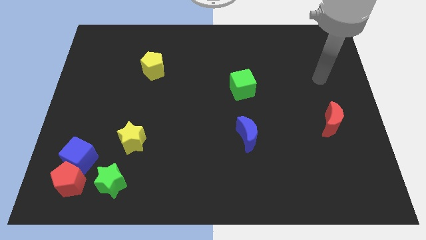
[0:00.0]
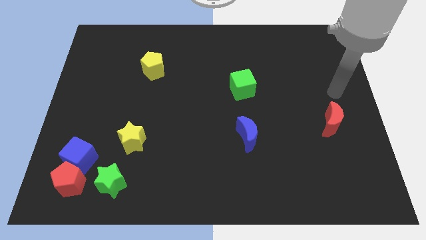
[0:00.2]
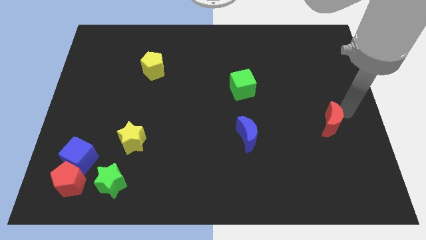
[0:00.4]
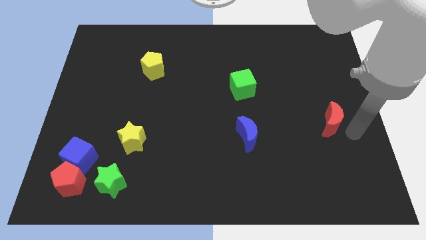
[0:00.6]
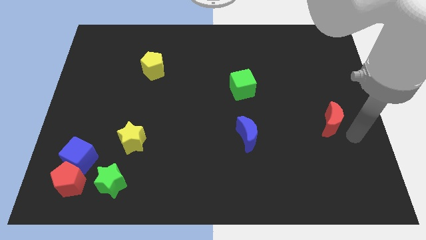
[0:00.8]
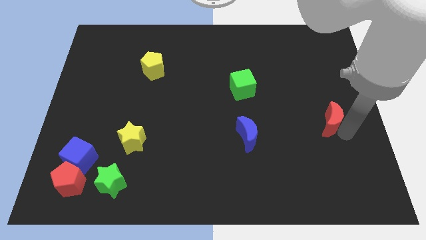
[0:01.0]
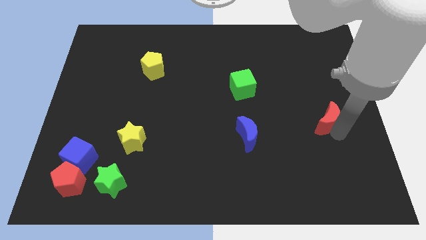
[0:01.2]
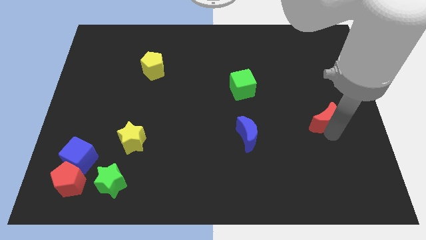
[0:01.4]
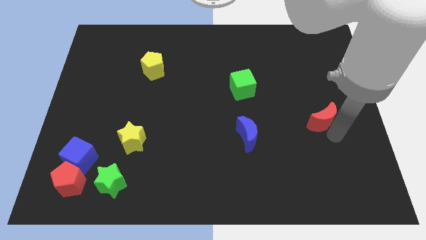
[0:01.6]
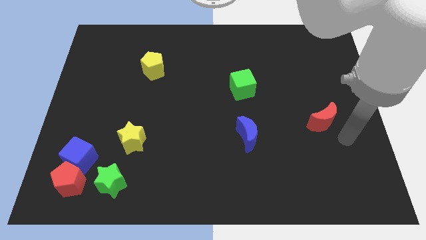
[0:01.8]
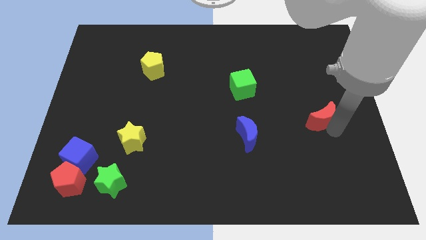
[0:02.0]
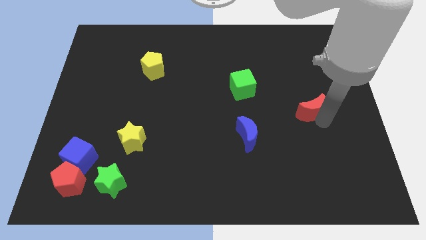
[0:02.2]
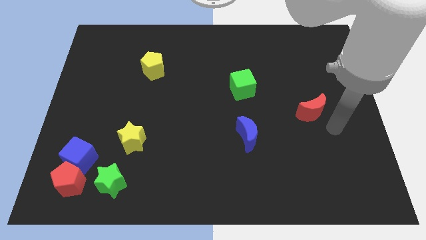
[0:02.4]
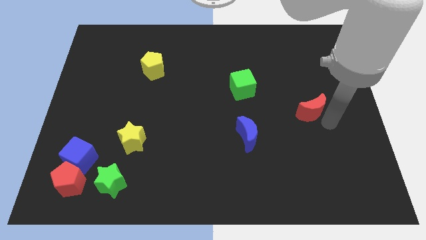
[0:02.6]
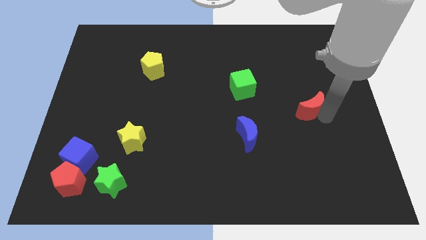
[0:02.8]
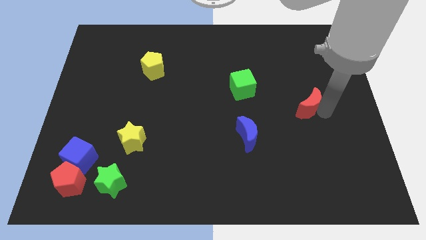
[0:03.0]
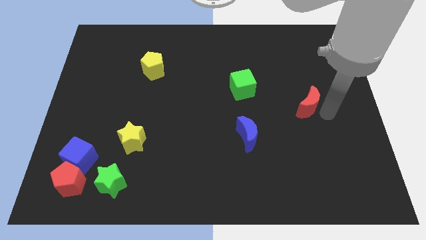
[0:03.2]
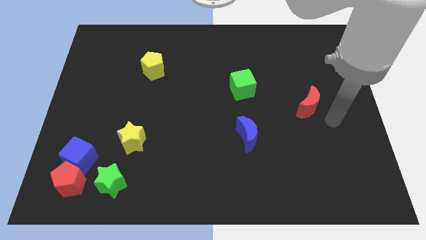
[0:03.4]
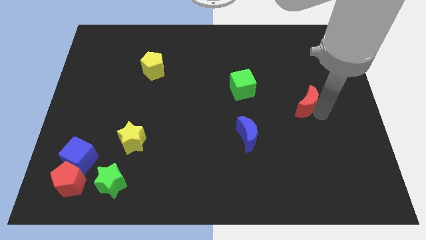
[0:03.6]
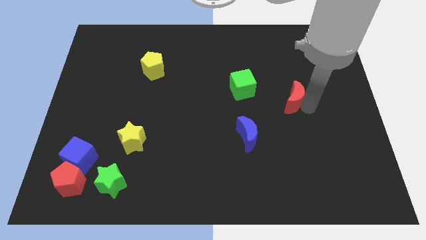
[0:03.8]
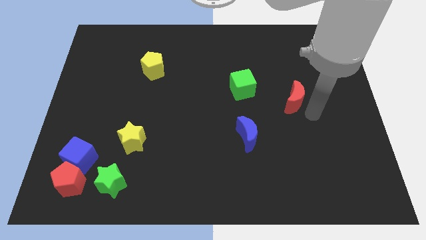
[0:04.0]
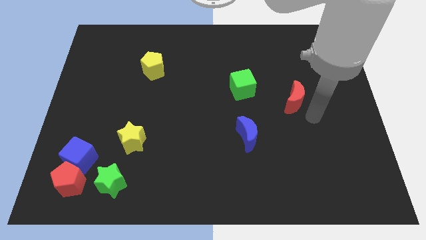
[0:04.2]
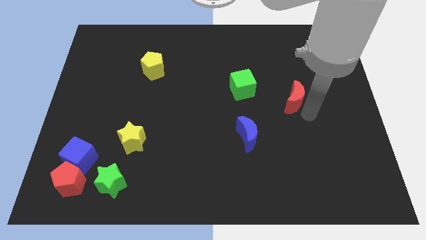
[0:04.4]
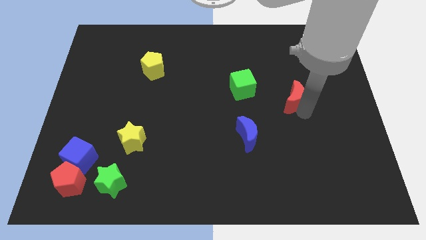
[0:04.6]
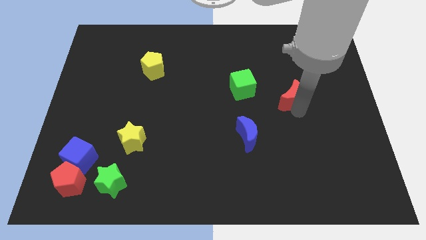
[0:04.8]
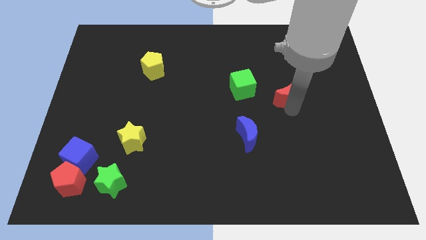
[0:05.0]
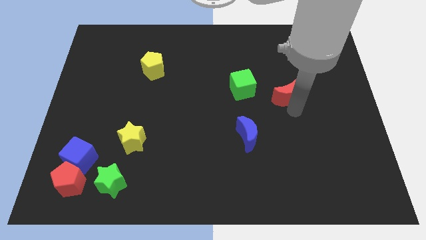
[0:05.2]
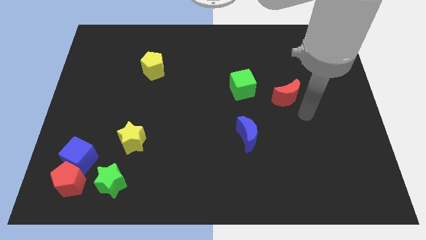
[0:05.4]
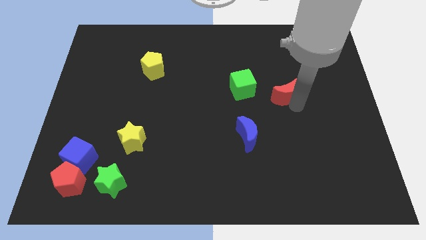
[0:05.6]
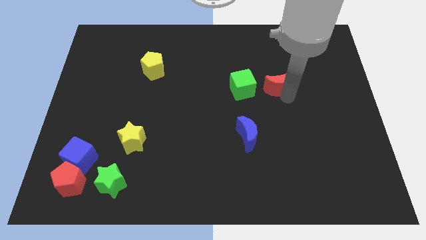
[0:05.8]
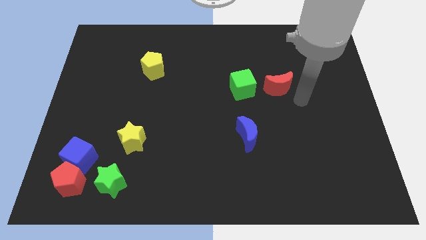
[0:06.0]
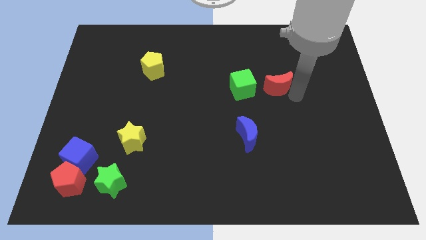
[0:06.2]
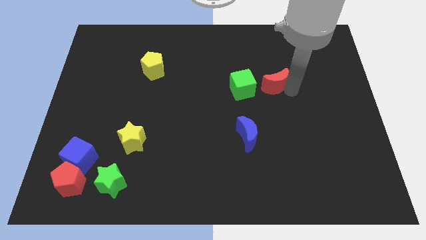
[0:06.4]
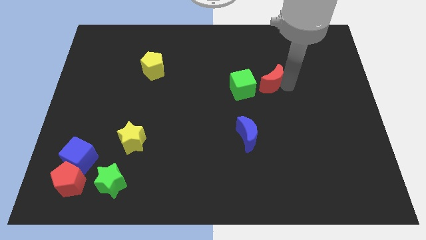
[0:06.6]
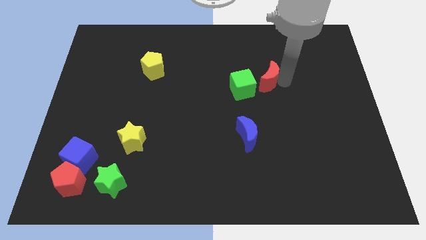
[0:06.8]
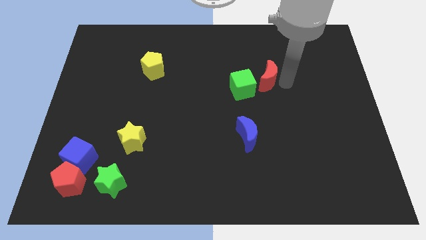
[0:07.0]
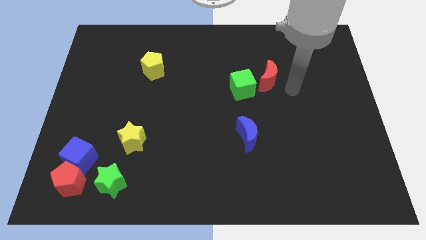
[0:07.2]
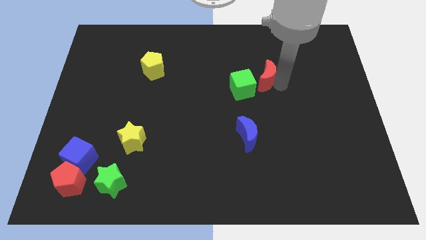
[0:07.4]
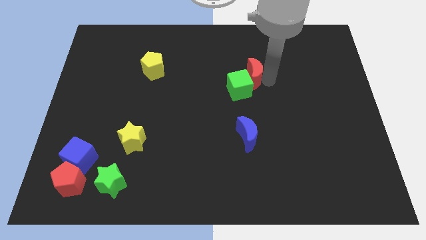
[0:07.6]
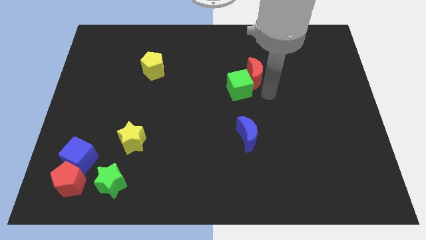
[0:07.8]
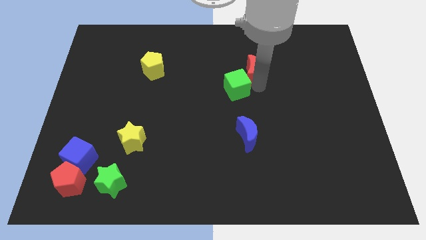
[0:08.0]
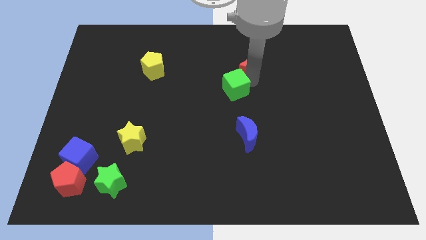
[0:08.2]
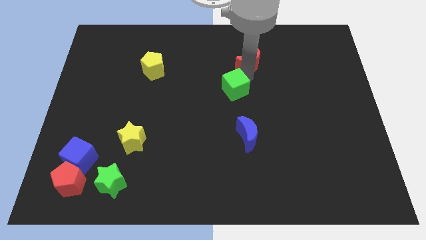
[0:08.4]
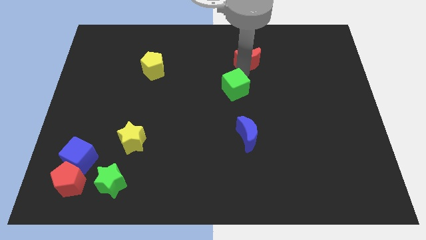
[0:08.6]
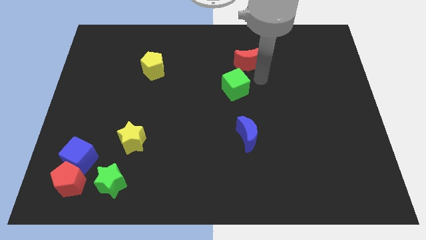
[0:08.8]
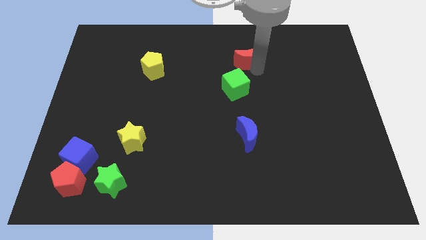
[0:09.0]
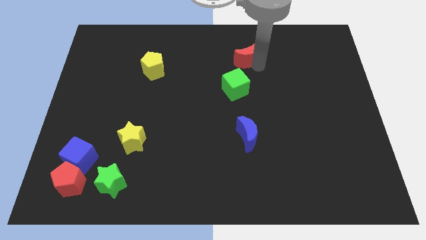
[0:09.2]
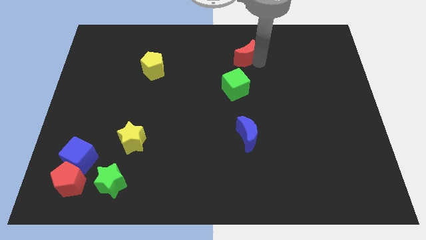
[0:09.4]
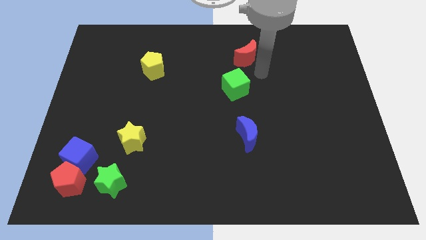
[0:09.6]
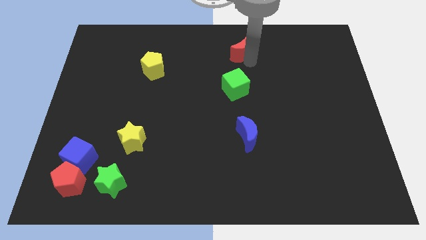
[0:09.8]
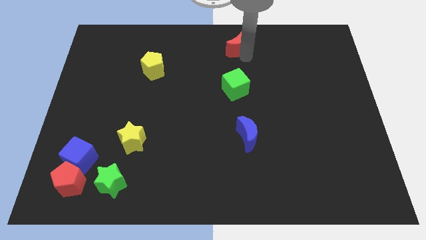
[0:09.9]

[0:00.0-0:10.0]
slide the red moon to the towards your base
